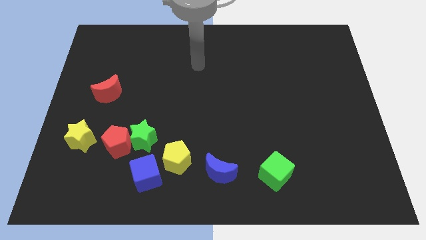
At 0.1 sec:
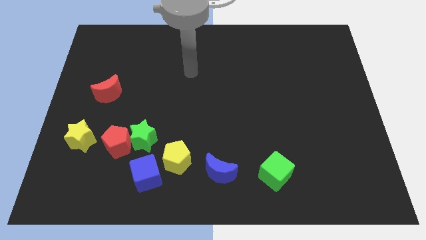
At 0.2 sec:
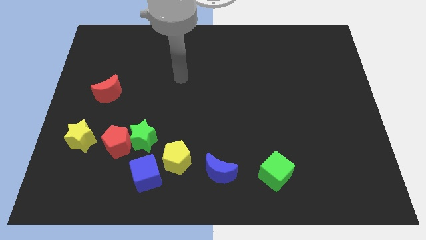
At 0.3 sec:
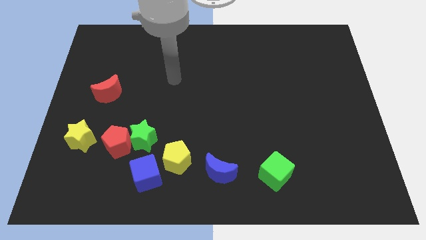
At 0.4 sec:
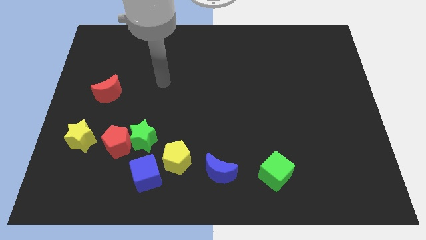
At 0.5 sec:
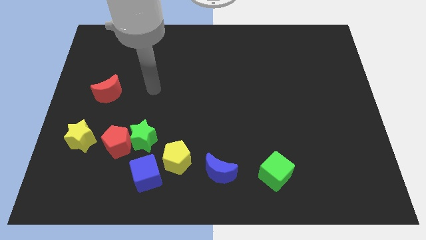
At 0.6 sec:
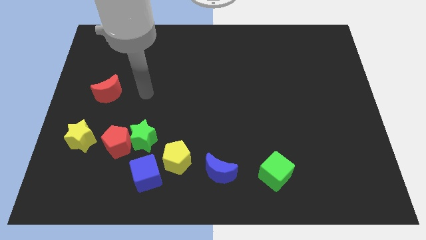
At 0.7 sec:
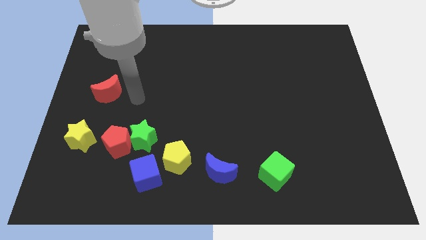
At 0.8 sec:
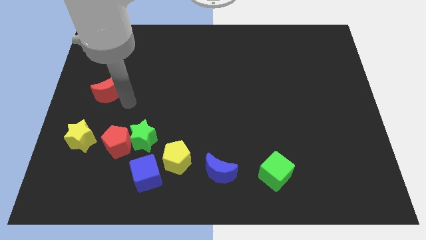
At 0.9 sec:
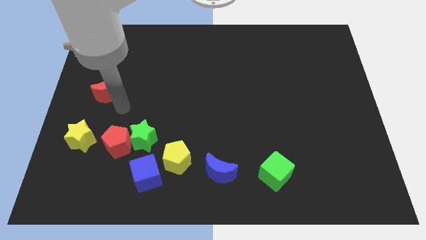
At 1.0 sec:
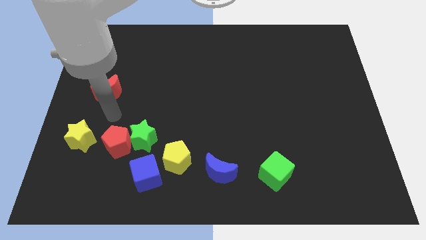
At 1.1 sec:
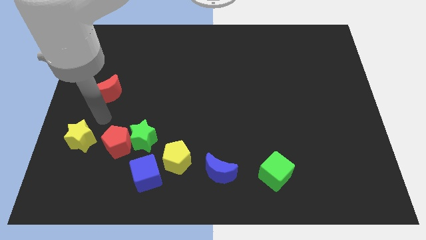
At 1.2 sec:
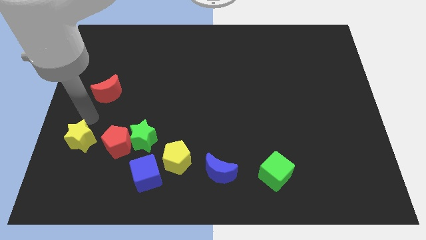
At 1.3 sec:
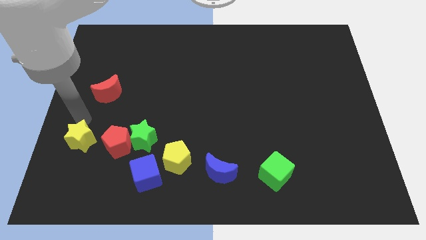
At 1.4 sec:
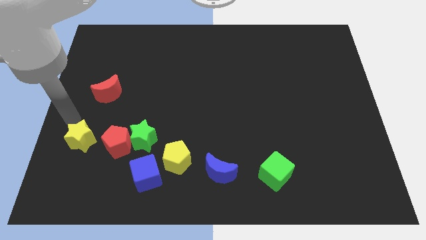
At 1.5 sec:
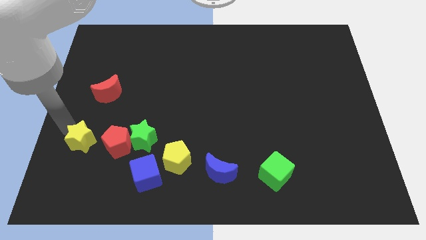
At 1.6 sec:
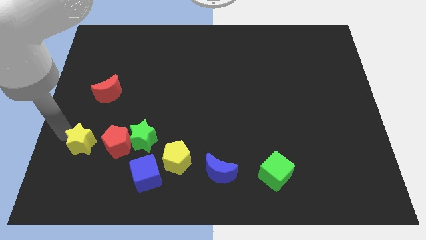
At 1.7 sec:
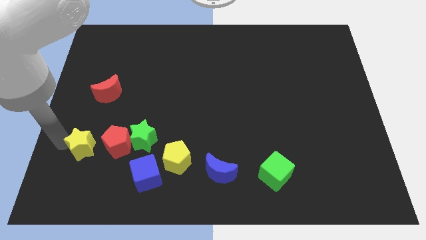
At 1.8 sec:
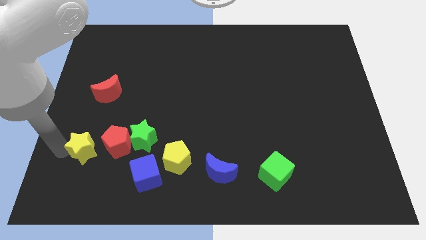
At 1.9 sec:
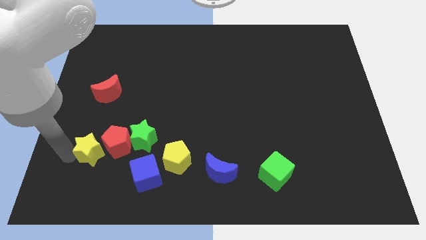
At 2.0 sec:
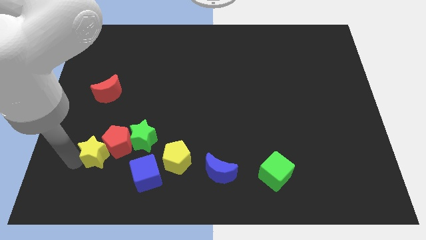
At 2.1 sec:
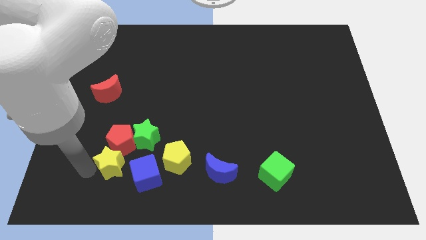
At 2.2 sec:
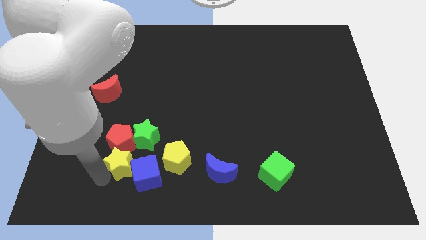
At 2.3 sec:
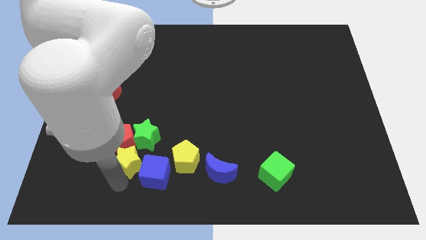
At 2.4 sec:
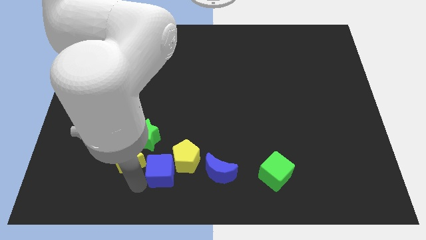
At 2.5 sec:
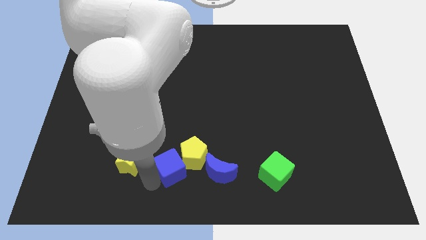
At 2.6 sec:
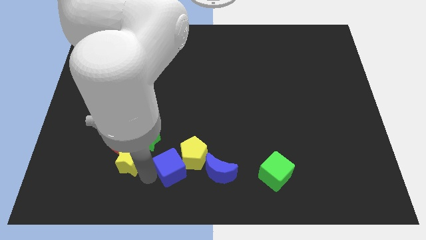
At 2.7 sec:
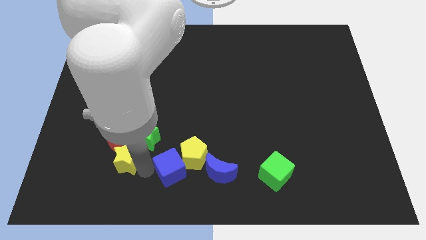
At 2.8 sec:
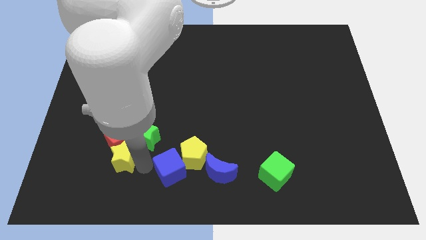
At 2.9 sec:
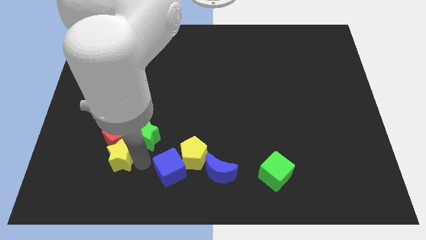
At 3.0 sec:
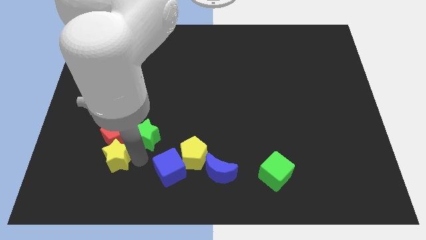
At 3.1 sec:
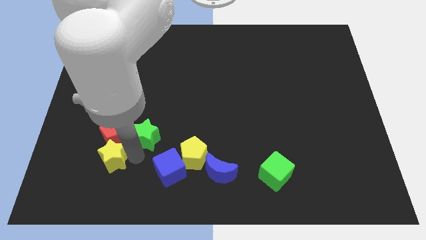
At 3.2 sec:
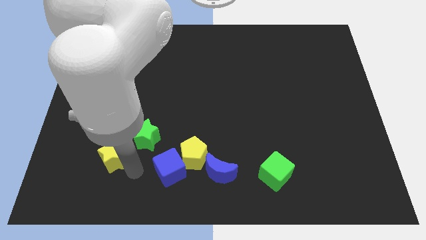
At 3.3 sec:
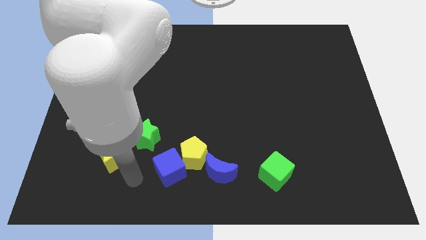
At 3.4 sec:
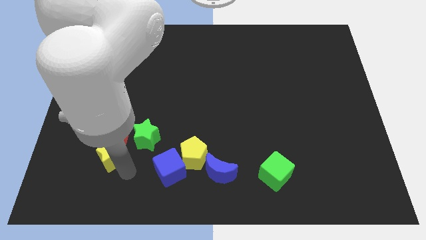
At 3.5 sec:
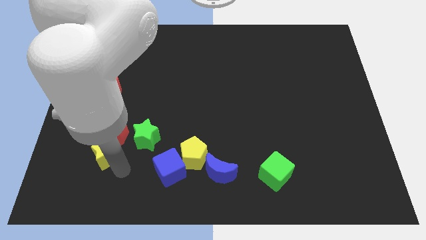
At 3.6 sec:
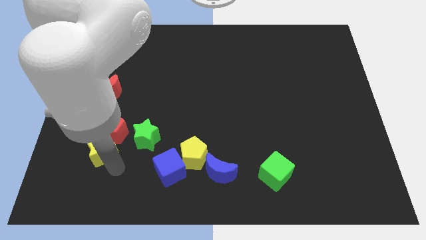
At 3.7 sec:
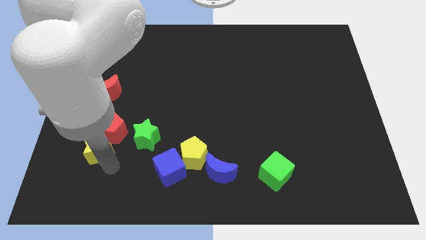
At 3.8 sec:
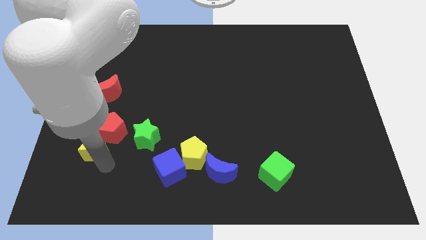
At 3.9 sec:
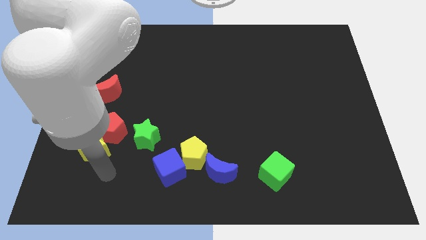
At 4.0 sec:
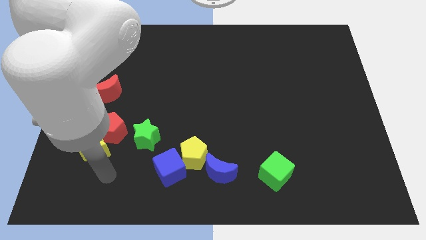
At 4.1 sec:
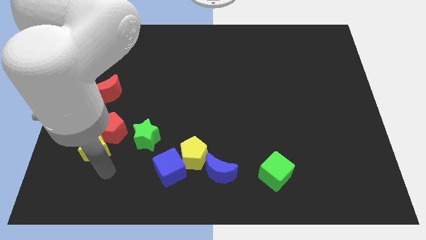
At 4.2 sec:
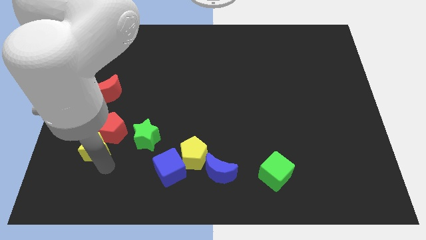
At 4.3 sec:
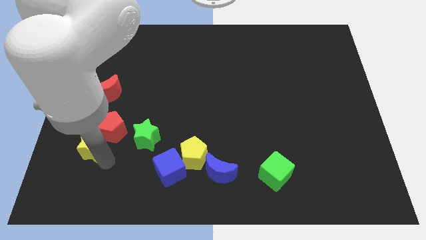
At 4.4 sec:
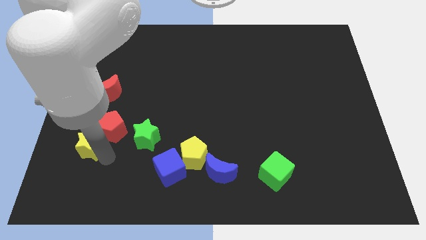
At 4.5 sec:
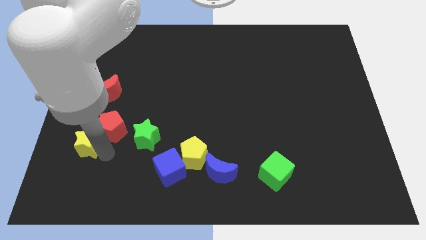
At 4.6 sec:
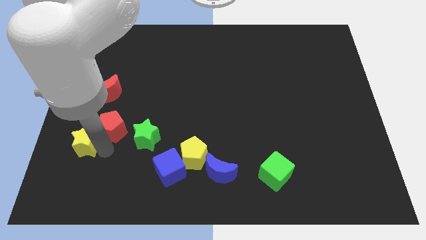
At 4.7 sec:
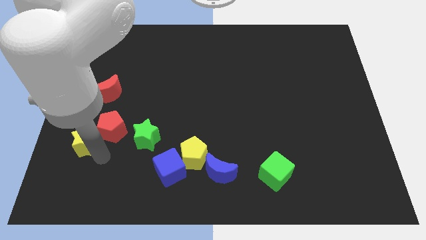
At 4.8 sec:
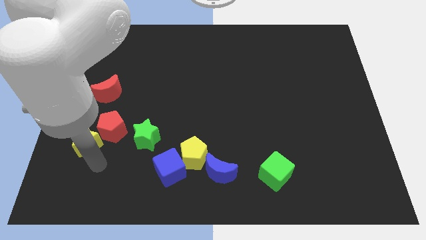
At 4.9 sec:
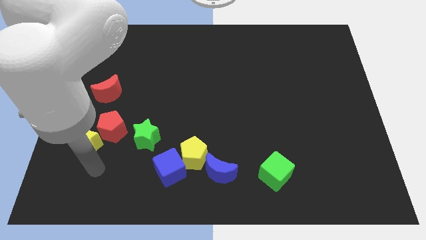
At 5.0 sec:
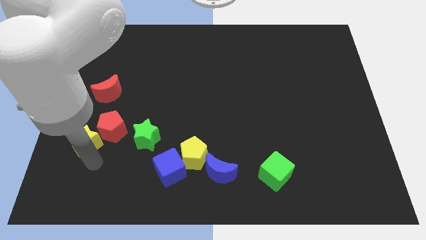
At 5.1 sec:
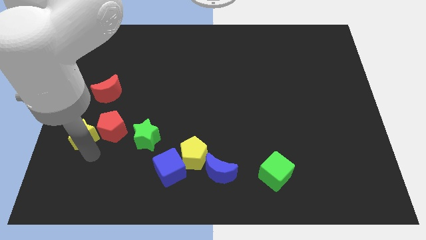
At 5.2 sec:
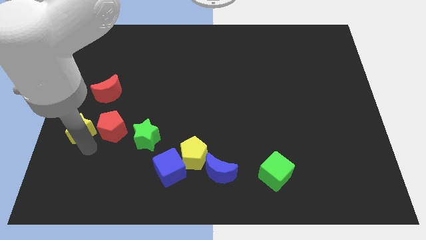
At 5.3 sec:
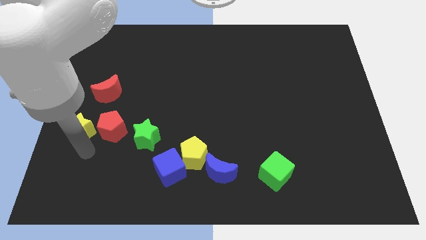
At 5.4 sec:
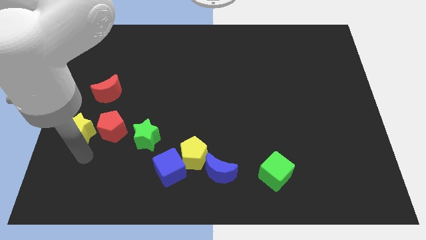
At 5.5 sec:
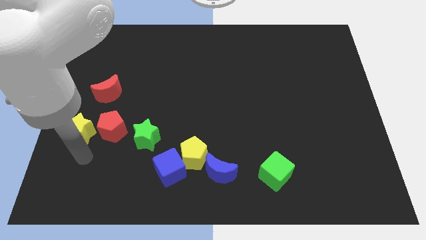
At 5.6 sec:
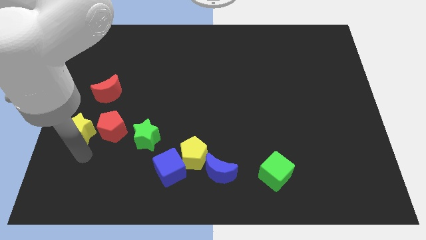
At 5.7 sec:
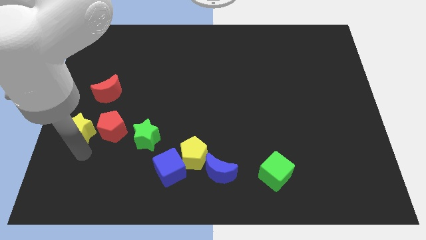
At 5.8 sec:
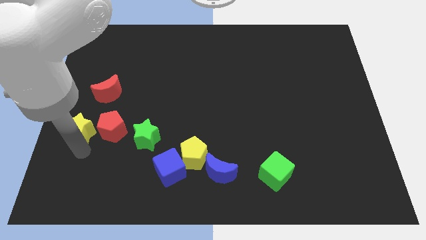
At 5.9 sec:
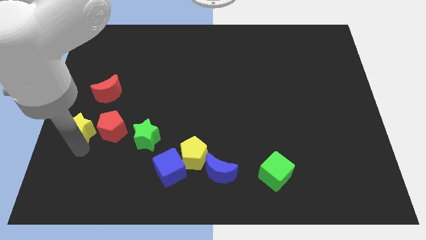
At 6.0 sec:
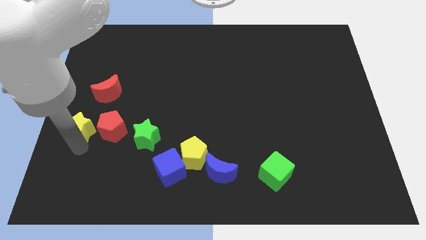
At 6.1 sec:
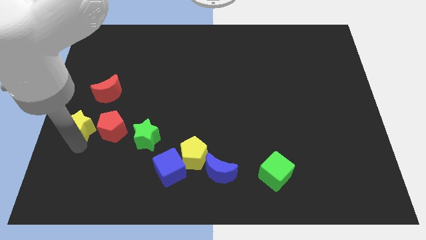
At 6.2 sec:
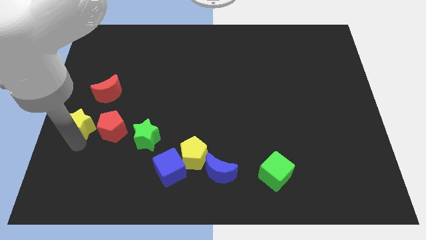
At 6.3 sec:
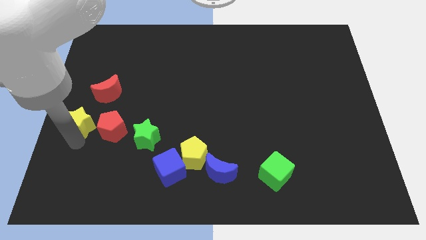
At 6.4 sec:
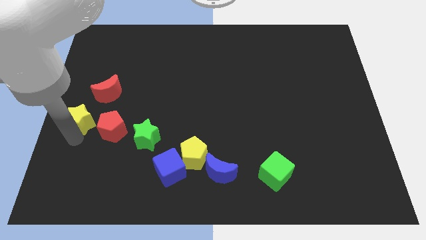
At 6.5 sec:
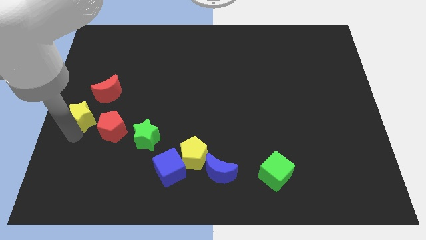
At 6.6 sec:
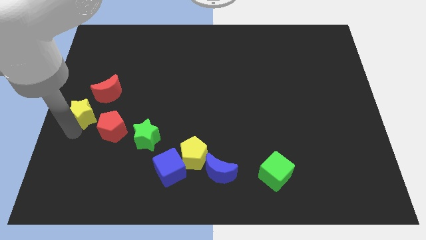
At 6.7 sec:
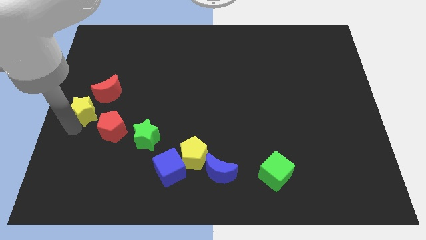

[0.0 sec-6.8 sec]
slightly slide the yellow star up

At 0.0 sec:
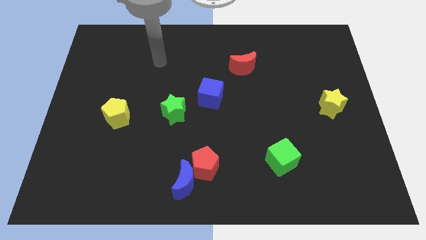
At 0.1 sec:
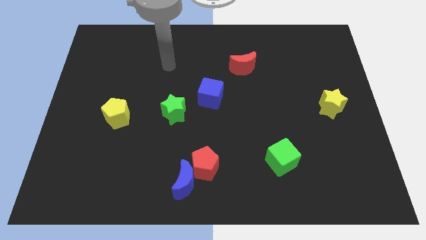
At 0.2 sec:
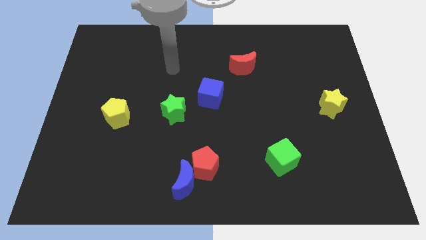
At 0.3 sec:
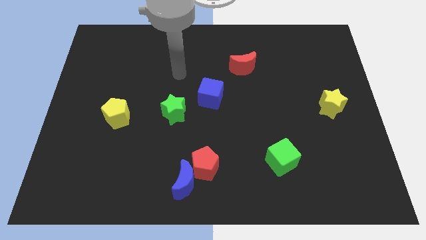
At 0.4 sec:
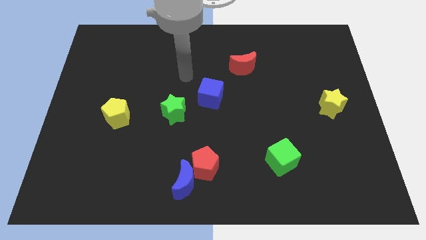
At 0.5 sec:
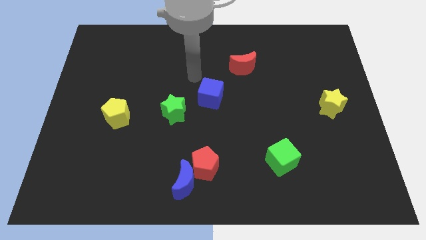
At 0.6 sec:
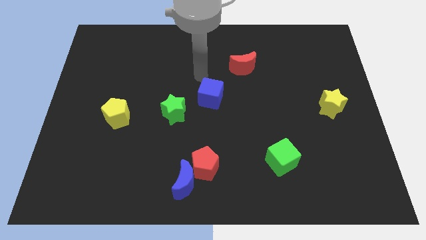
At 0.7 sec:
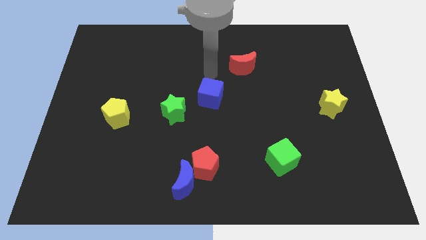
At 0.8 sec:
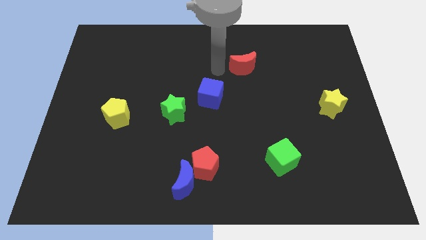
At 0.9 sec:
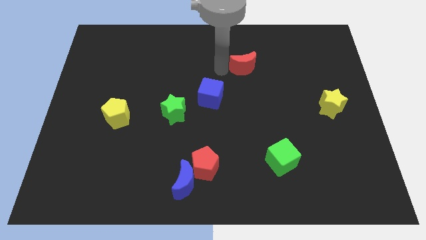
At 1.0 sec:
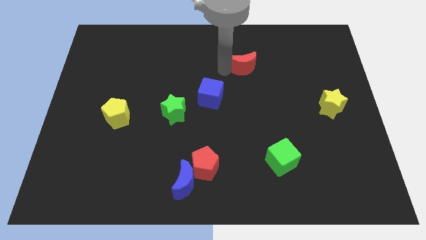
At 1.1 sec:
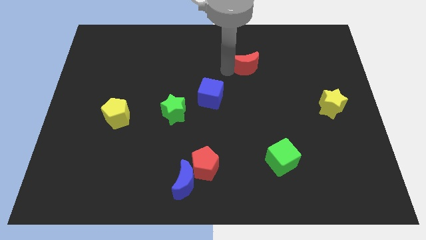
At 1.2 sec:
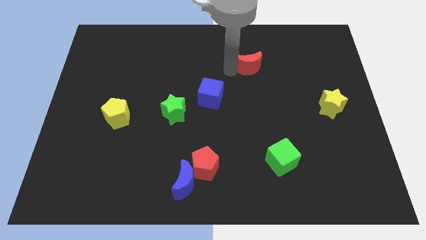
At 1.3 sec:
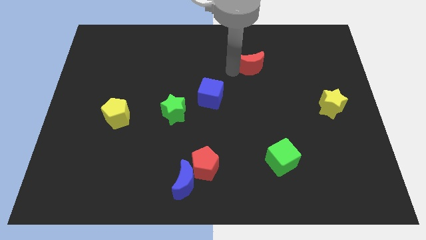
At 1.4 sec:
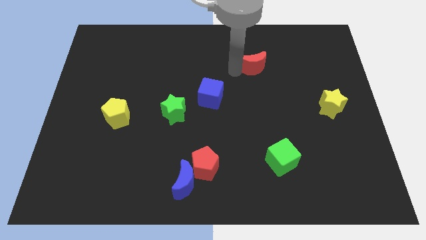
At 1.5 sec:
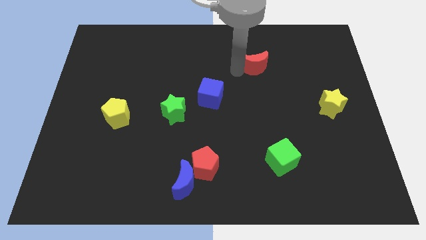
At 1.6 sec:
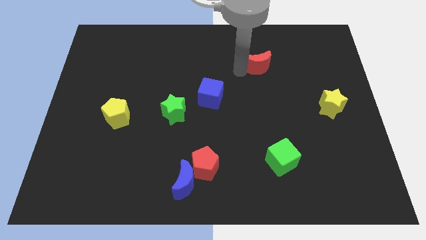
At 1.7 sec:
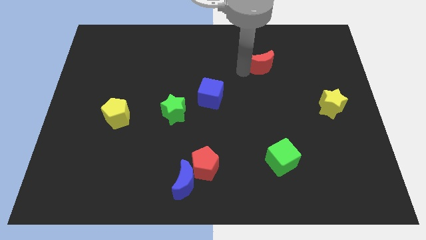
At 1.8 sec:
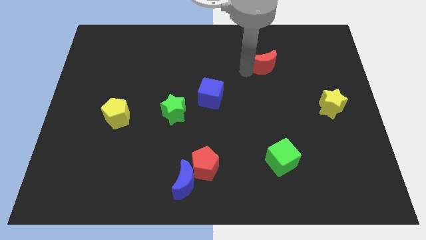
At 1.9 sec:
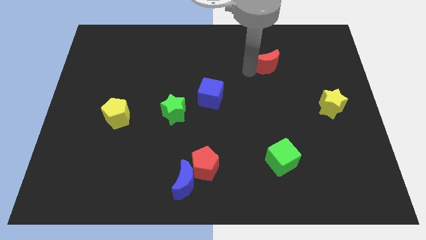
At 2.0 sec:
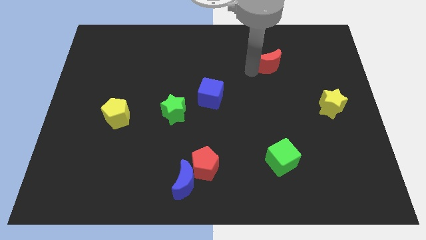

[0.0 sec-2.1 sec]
slightly push the red moon right
